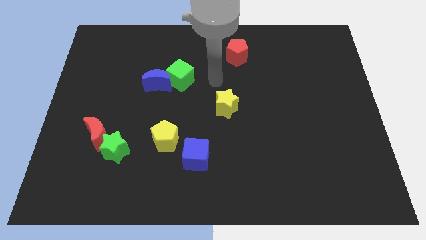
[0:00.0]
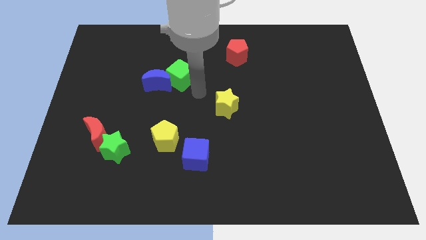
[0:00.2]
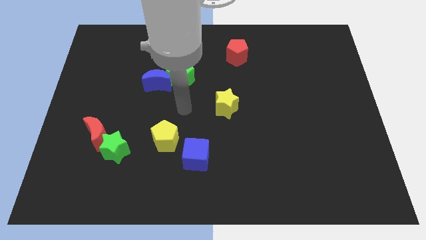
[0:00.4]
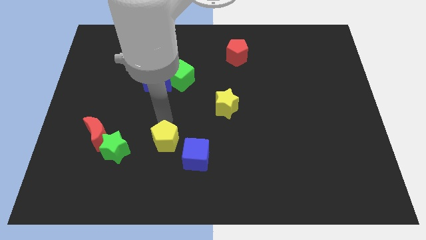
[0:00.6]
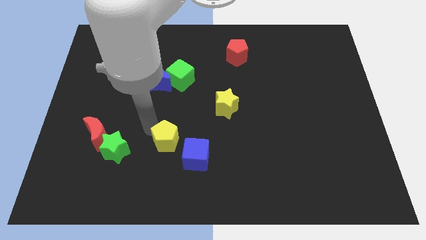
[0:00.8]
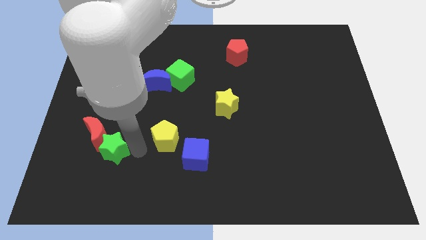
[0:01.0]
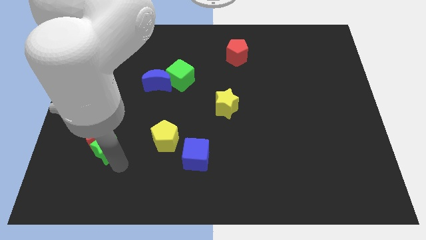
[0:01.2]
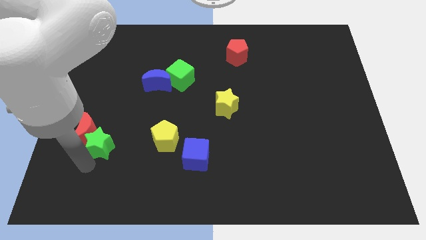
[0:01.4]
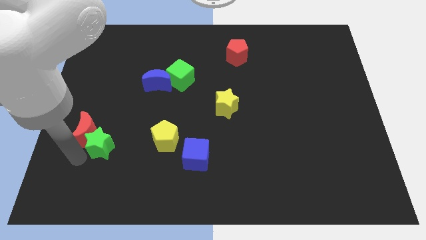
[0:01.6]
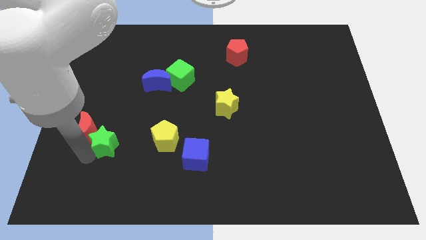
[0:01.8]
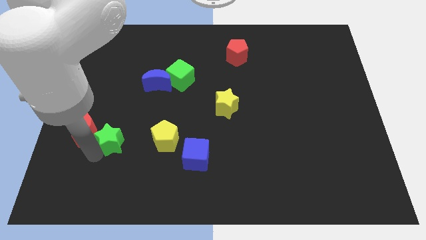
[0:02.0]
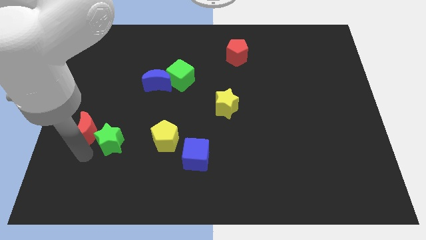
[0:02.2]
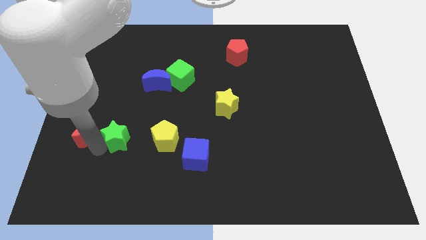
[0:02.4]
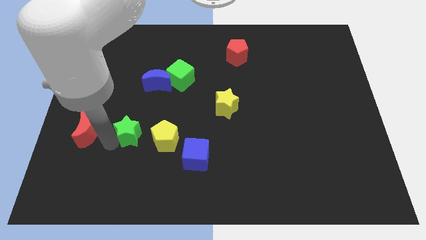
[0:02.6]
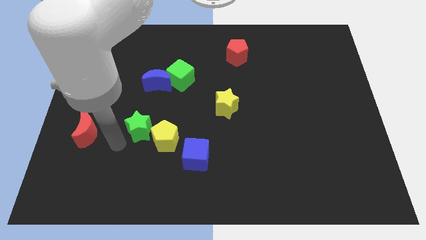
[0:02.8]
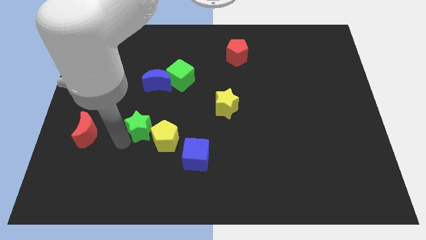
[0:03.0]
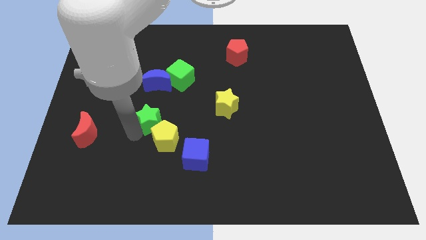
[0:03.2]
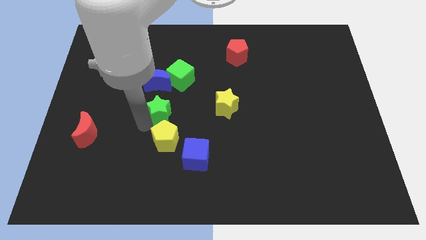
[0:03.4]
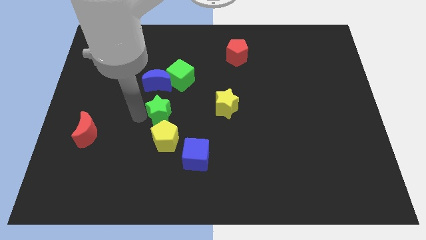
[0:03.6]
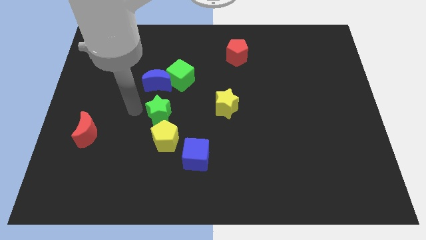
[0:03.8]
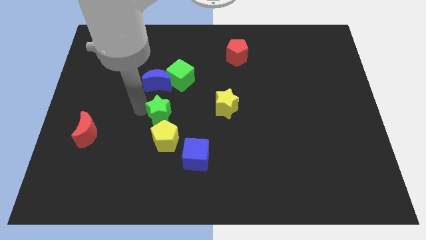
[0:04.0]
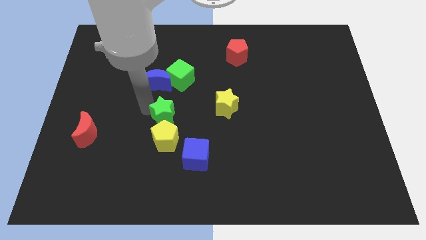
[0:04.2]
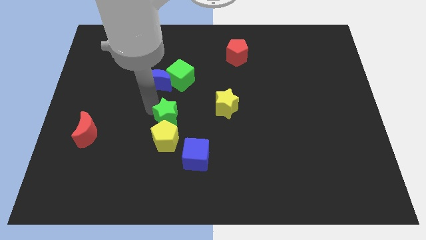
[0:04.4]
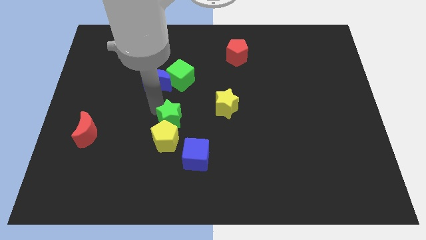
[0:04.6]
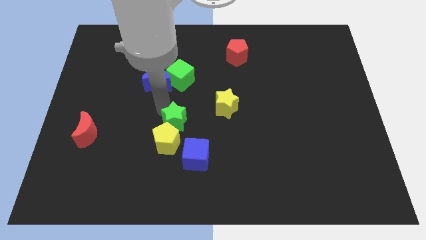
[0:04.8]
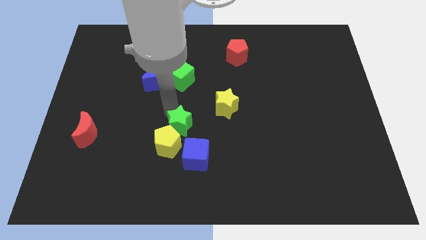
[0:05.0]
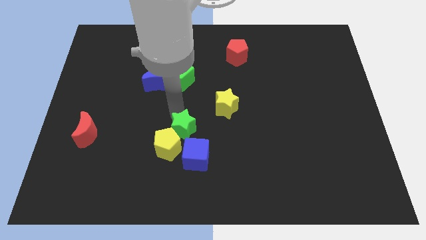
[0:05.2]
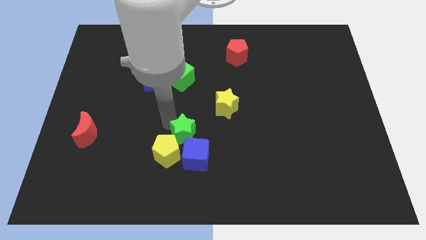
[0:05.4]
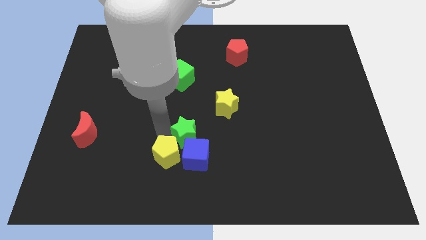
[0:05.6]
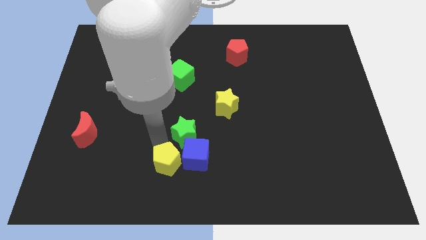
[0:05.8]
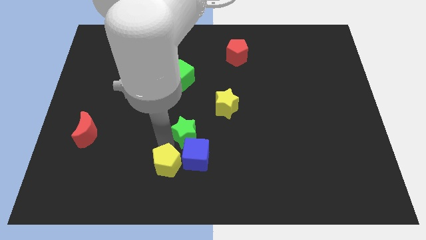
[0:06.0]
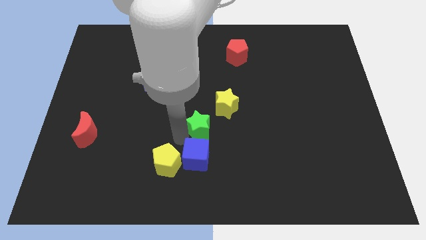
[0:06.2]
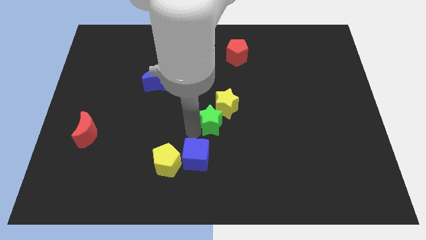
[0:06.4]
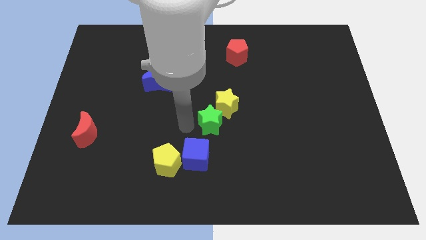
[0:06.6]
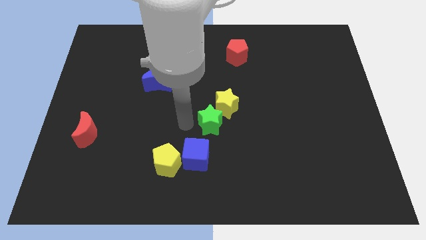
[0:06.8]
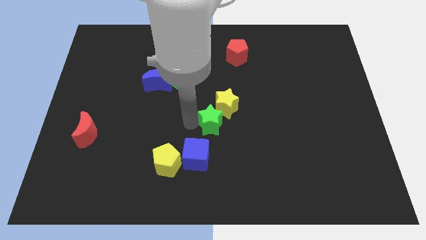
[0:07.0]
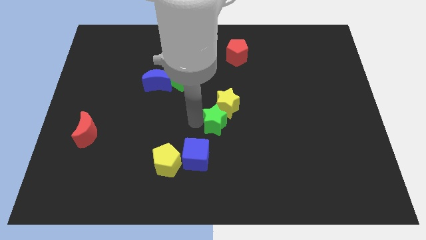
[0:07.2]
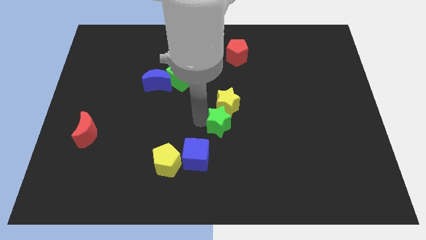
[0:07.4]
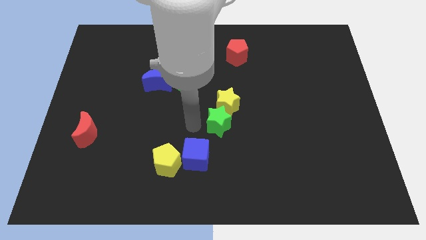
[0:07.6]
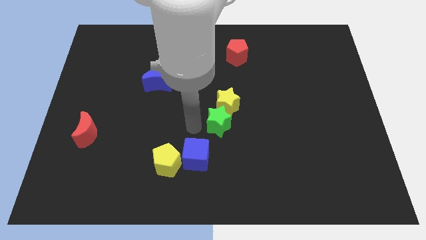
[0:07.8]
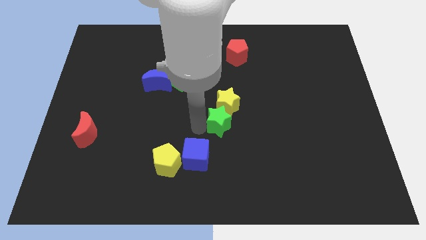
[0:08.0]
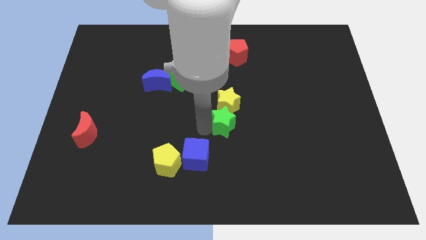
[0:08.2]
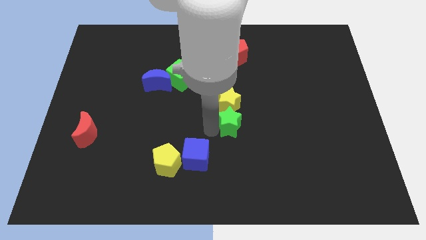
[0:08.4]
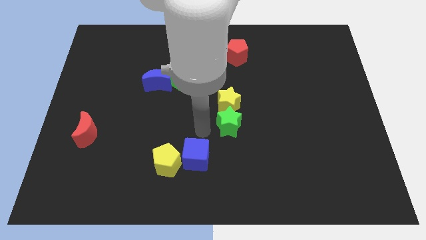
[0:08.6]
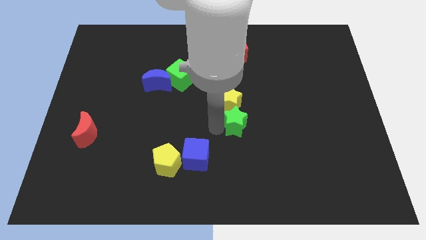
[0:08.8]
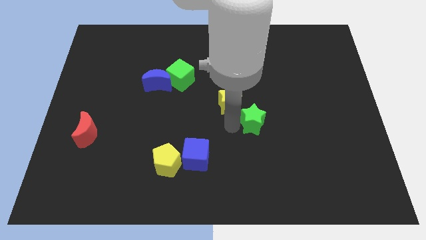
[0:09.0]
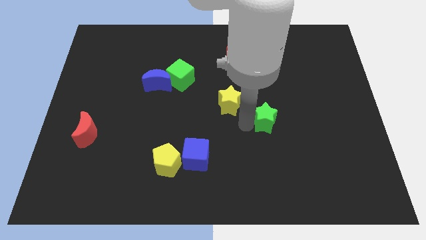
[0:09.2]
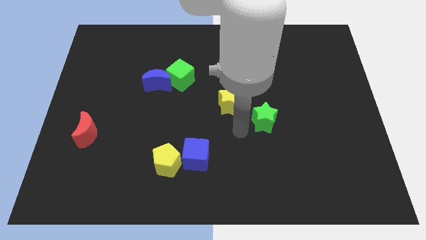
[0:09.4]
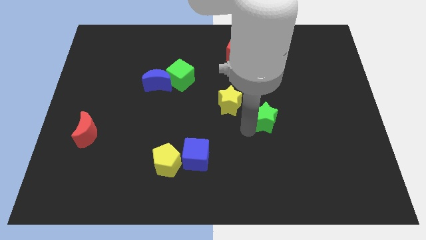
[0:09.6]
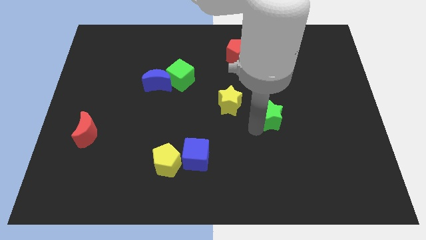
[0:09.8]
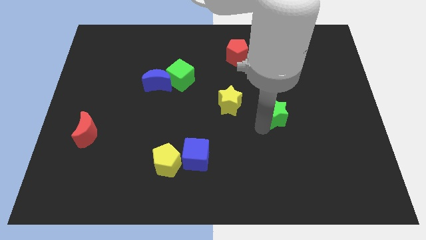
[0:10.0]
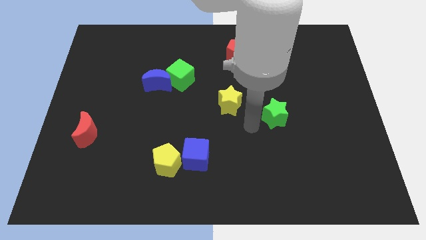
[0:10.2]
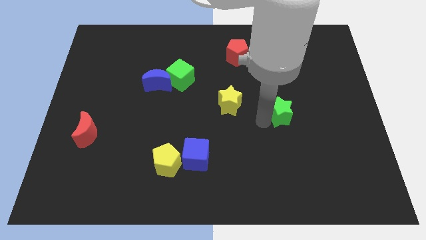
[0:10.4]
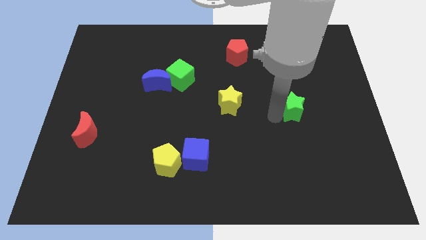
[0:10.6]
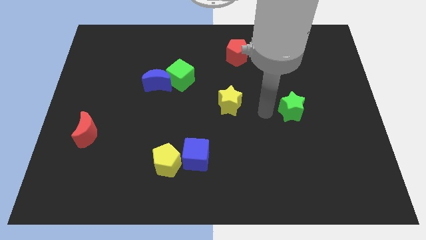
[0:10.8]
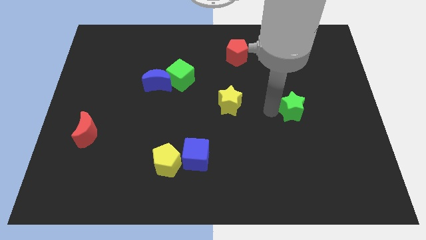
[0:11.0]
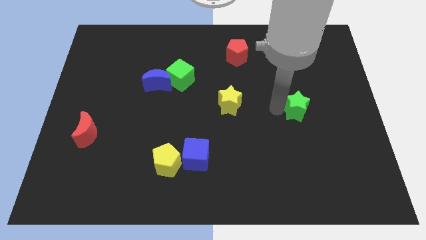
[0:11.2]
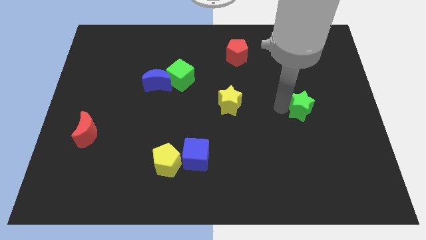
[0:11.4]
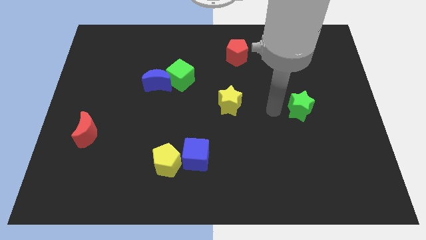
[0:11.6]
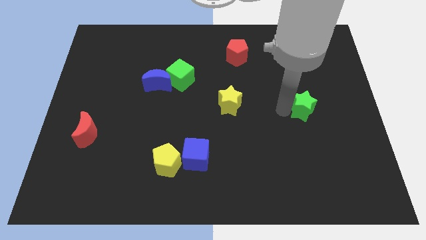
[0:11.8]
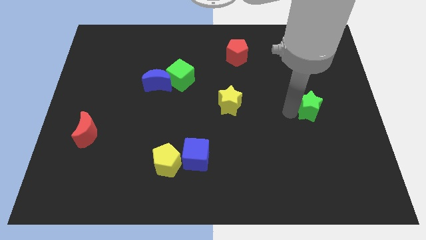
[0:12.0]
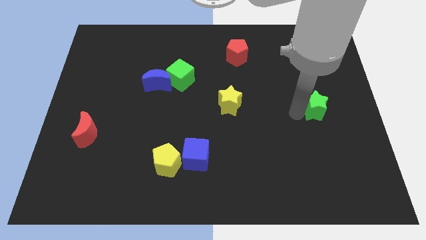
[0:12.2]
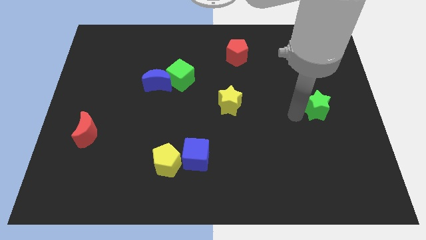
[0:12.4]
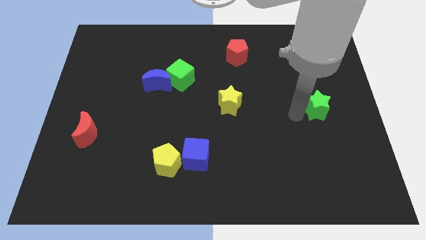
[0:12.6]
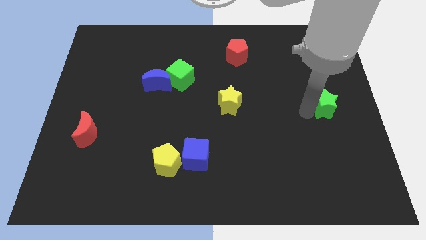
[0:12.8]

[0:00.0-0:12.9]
push the green star to the right side of the board
